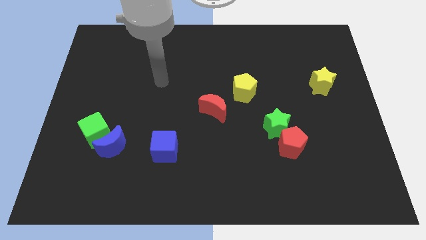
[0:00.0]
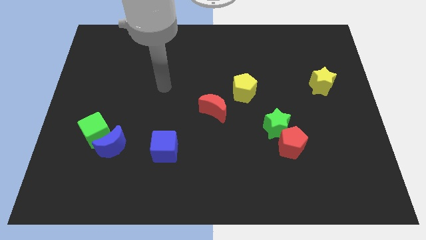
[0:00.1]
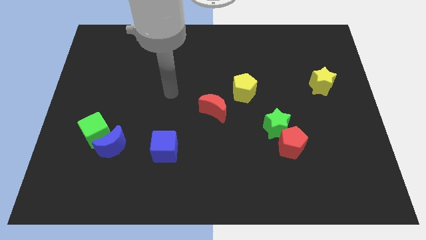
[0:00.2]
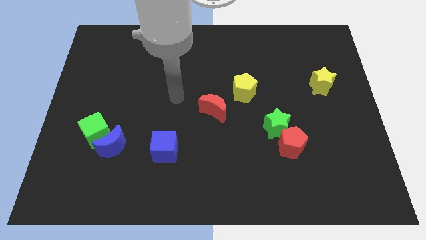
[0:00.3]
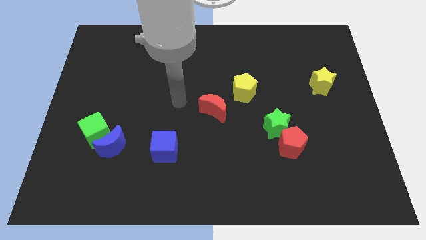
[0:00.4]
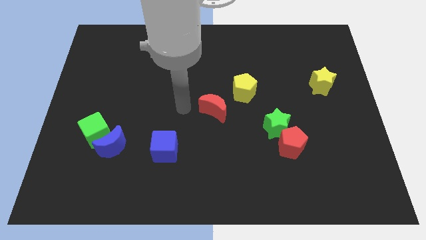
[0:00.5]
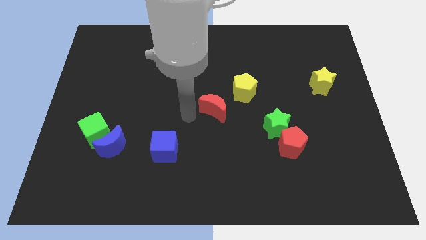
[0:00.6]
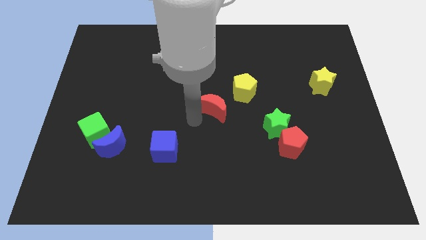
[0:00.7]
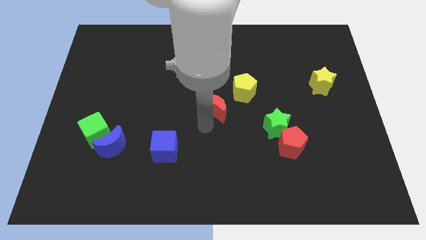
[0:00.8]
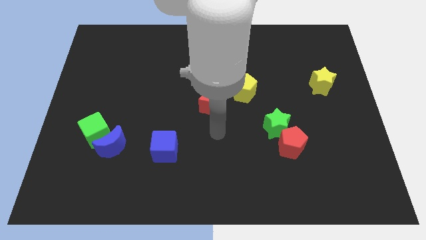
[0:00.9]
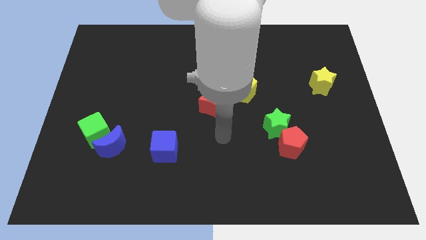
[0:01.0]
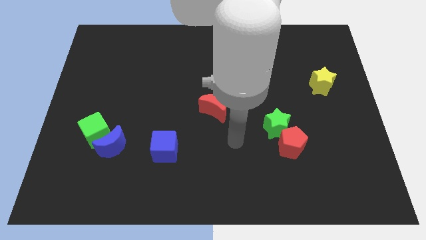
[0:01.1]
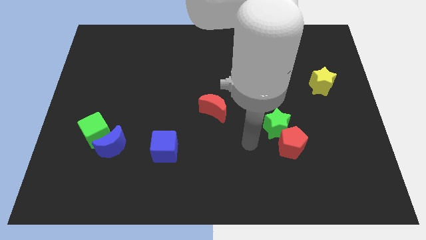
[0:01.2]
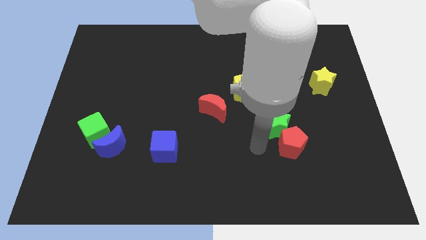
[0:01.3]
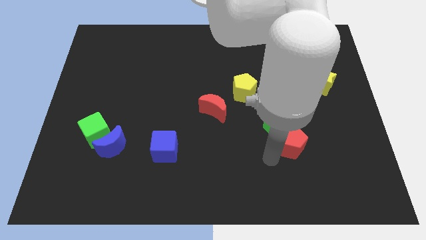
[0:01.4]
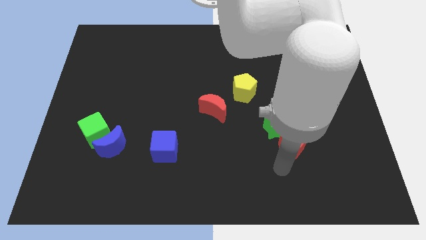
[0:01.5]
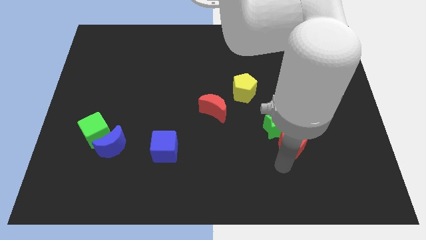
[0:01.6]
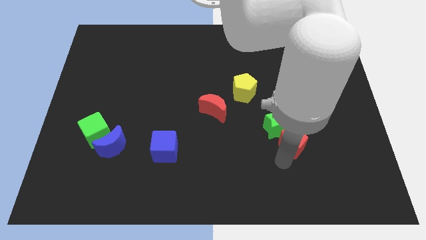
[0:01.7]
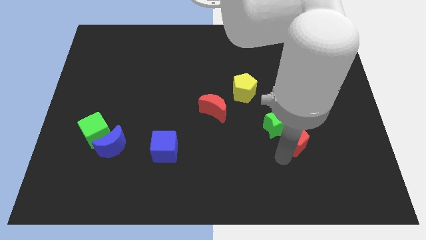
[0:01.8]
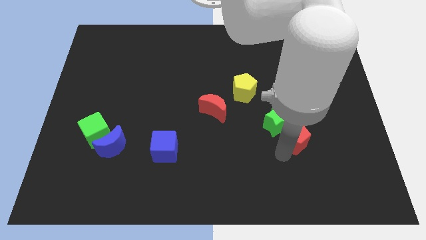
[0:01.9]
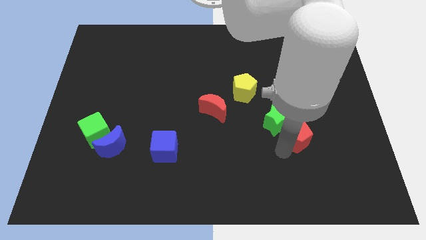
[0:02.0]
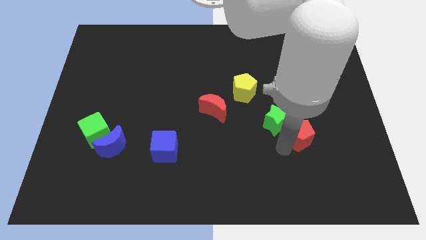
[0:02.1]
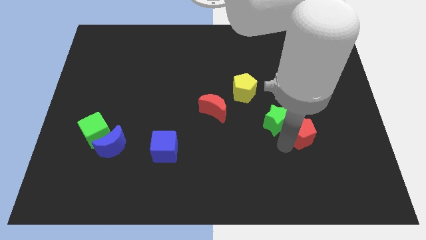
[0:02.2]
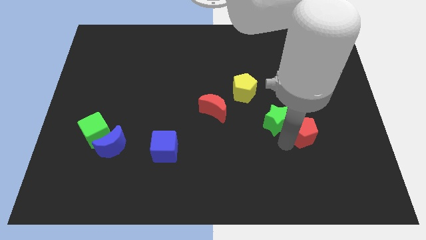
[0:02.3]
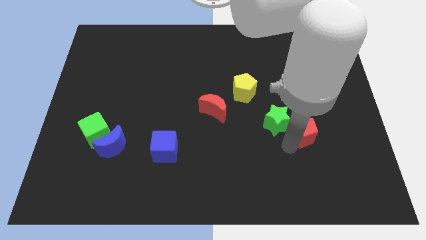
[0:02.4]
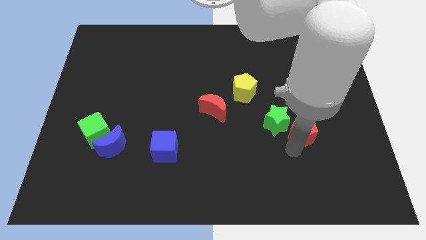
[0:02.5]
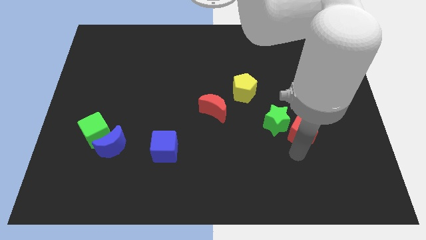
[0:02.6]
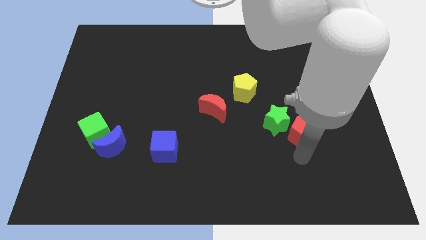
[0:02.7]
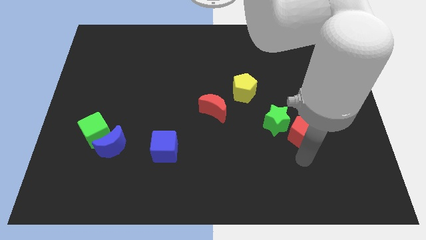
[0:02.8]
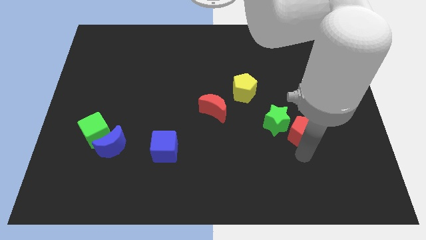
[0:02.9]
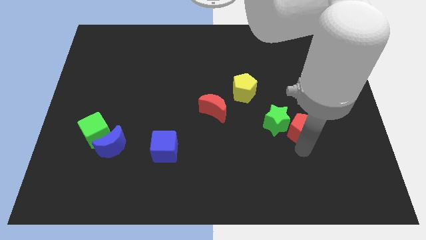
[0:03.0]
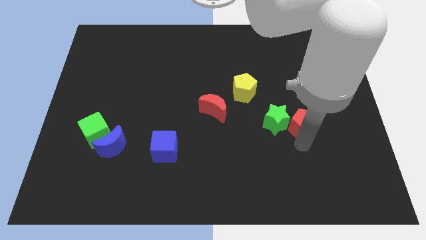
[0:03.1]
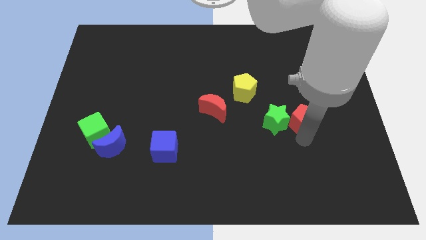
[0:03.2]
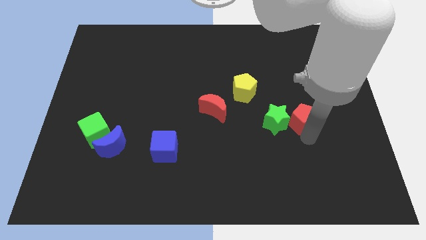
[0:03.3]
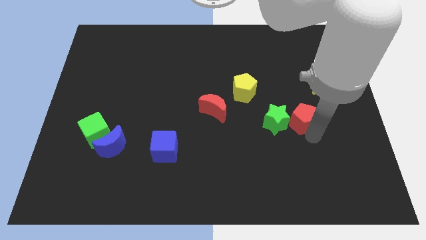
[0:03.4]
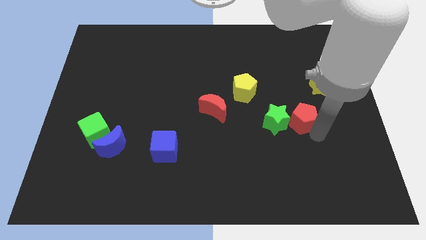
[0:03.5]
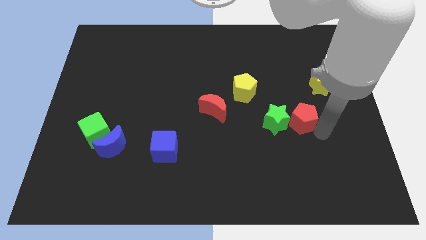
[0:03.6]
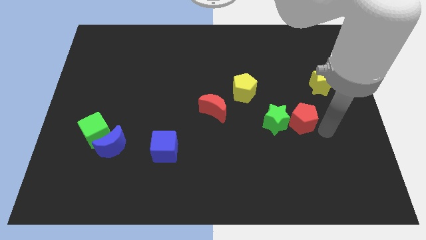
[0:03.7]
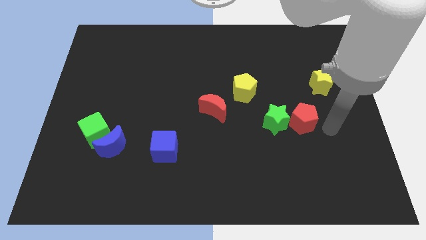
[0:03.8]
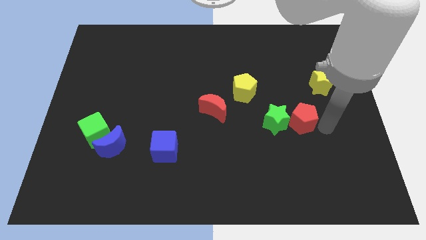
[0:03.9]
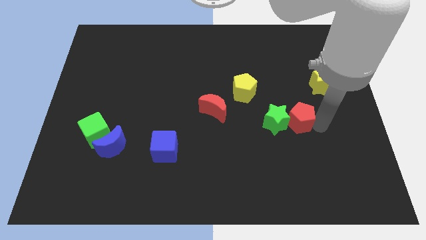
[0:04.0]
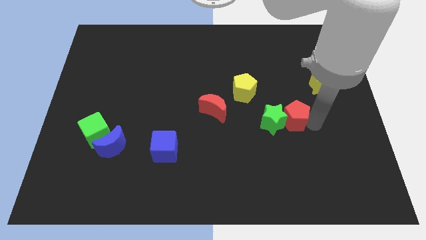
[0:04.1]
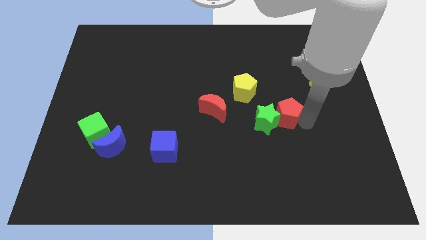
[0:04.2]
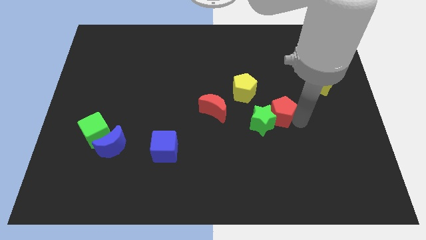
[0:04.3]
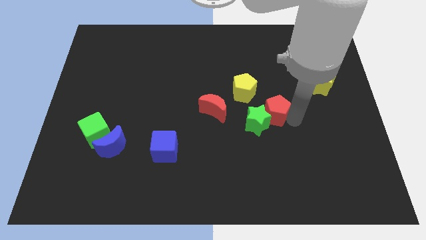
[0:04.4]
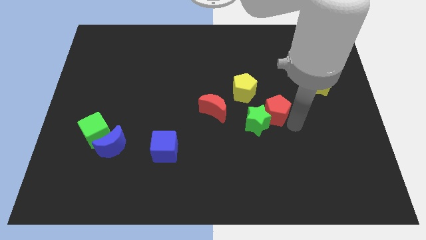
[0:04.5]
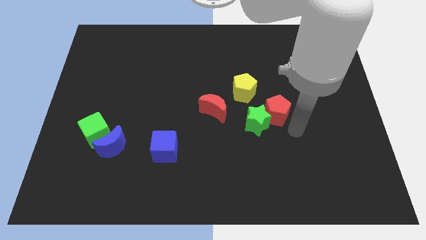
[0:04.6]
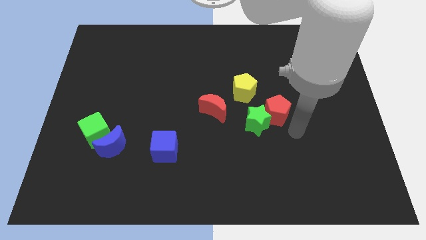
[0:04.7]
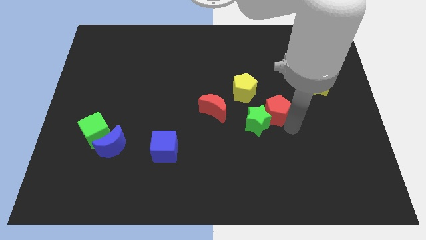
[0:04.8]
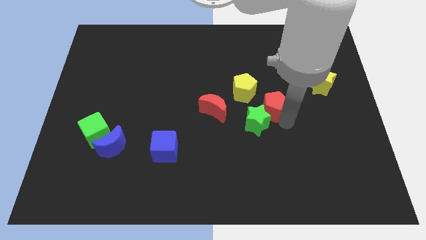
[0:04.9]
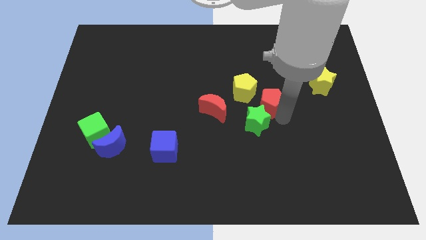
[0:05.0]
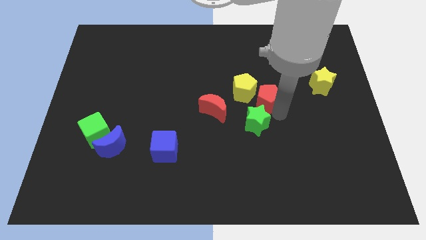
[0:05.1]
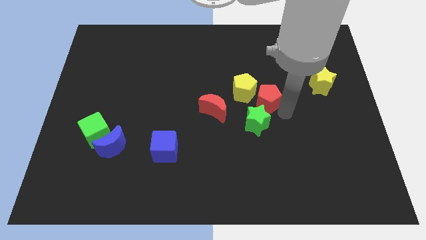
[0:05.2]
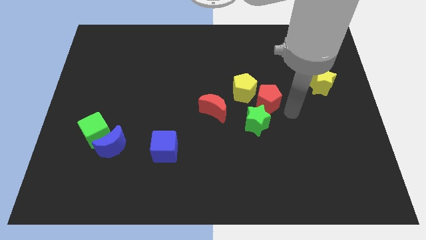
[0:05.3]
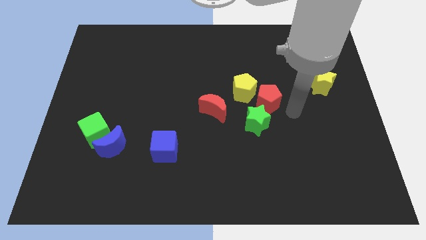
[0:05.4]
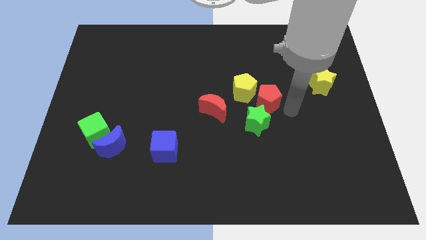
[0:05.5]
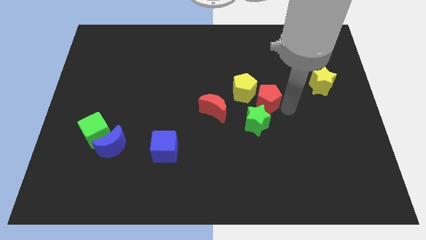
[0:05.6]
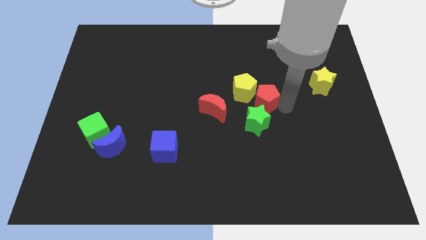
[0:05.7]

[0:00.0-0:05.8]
move the red pentagon next to the yellow pentagon

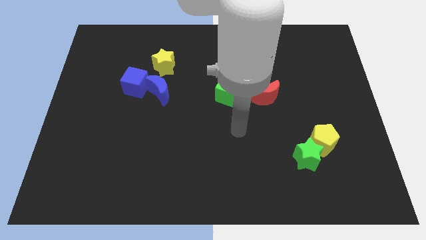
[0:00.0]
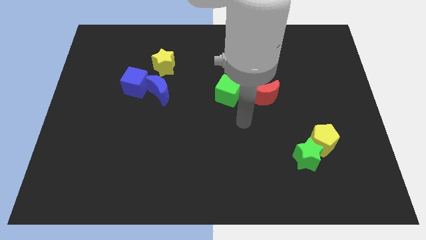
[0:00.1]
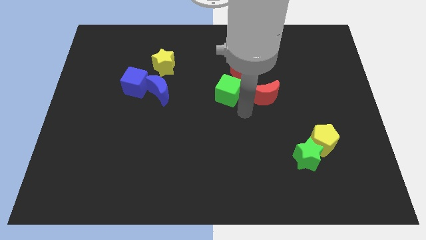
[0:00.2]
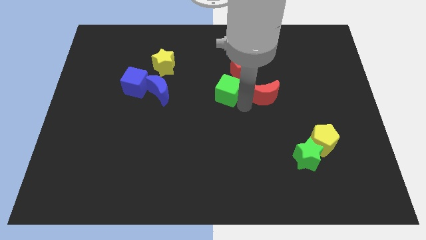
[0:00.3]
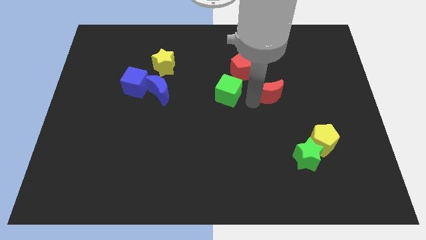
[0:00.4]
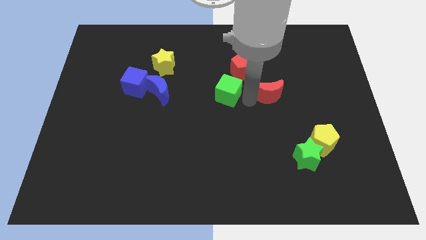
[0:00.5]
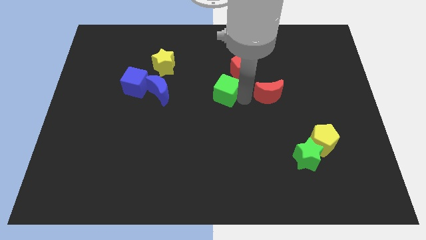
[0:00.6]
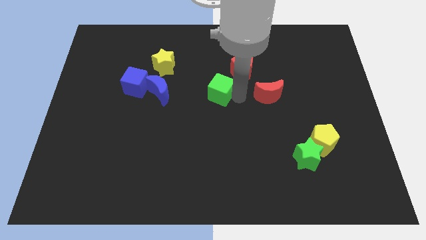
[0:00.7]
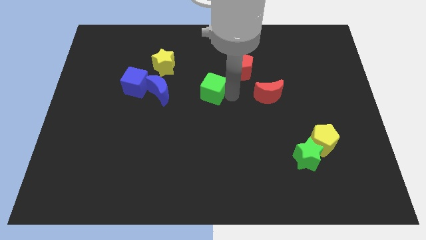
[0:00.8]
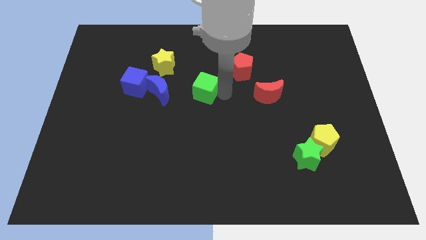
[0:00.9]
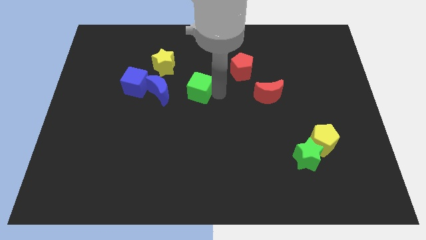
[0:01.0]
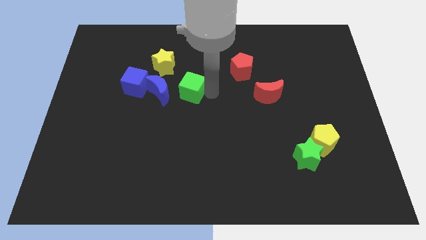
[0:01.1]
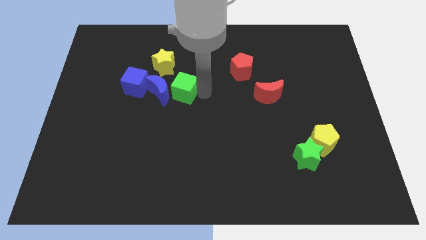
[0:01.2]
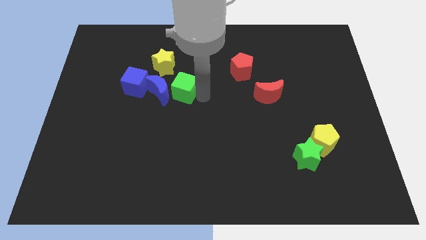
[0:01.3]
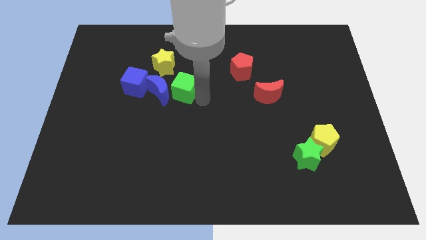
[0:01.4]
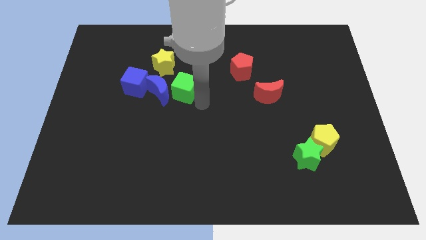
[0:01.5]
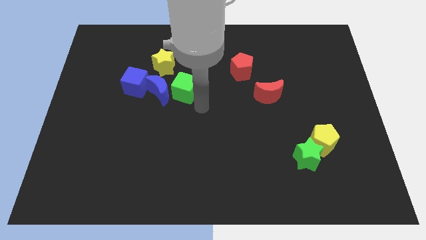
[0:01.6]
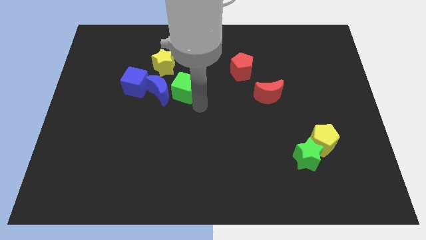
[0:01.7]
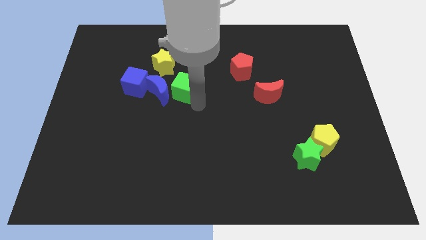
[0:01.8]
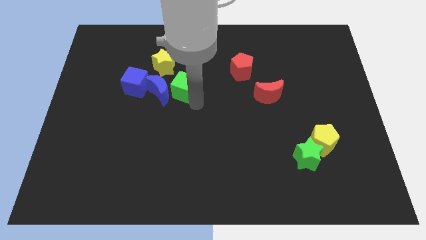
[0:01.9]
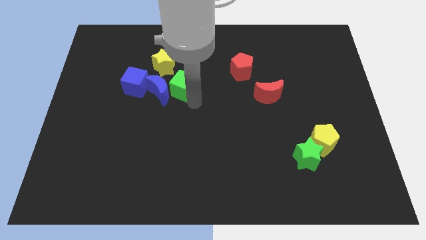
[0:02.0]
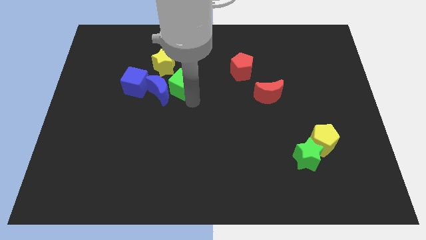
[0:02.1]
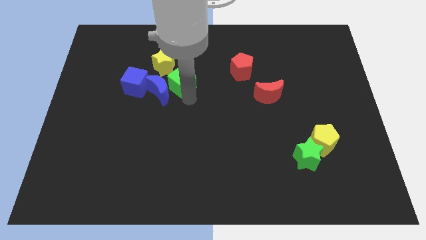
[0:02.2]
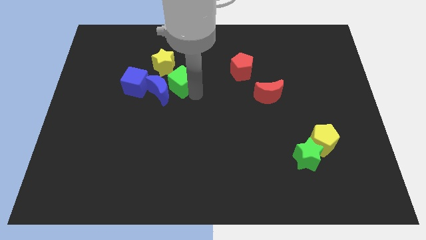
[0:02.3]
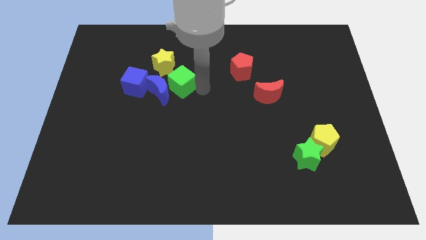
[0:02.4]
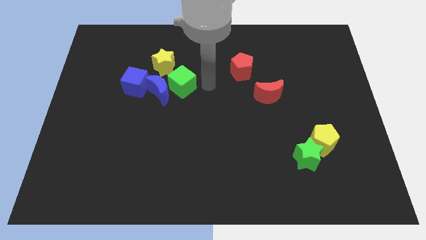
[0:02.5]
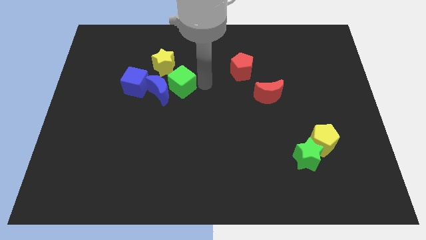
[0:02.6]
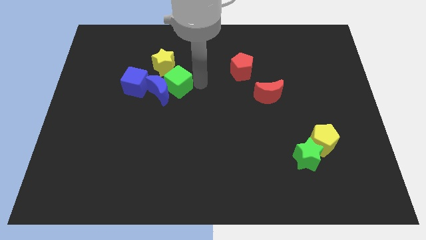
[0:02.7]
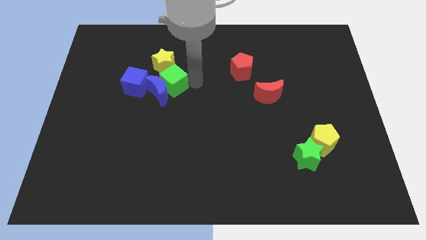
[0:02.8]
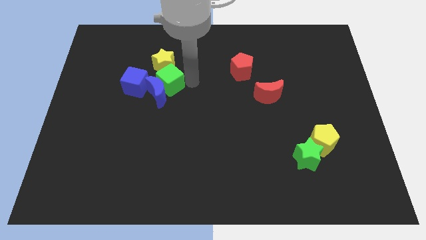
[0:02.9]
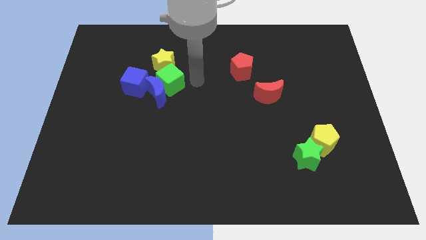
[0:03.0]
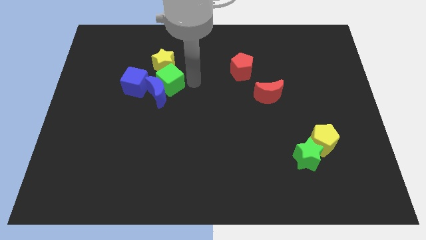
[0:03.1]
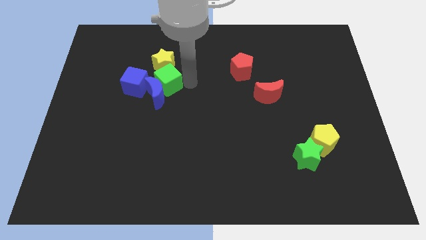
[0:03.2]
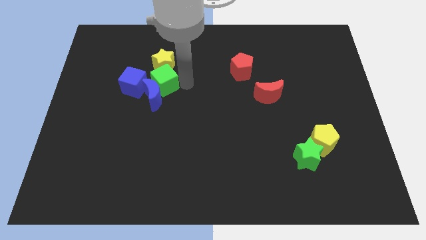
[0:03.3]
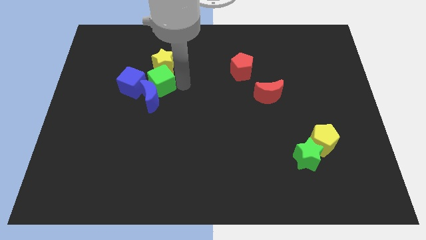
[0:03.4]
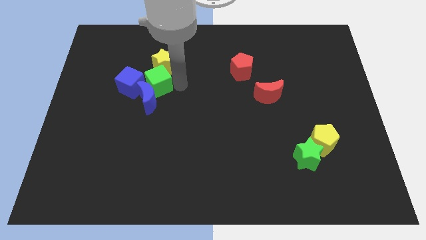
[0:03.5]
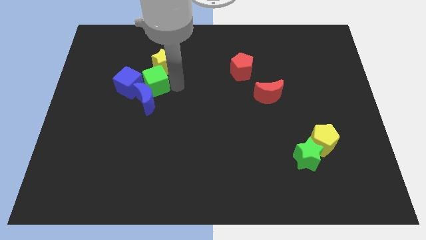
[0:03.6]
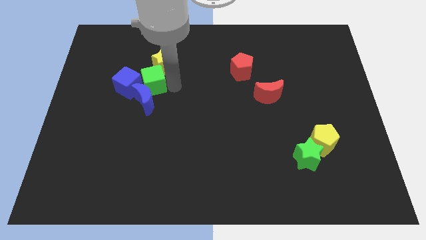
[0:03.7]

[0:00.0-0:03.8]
move the green cube close to the blue cube
